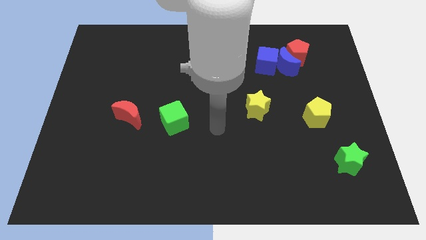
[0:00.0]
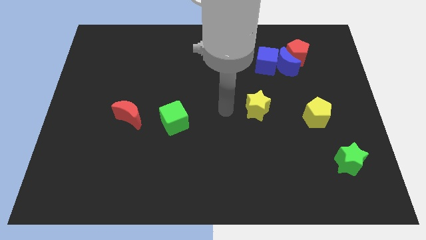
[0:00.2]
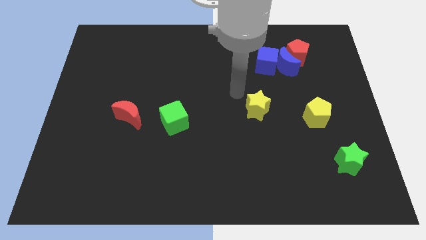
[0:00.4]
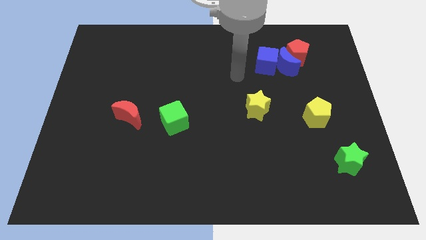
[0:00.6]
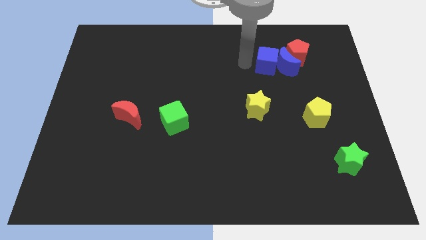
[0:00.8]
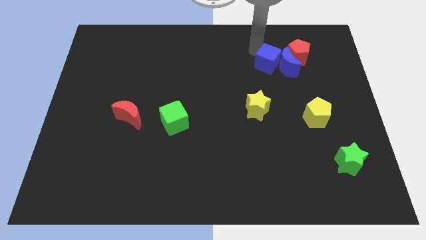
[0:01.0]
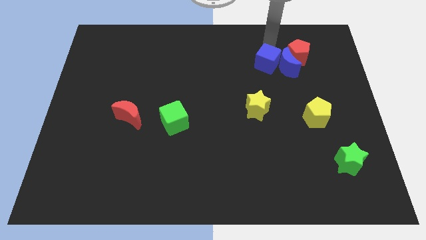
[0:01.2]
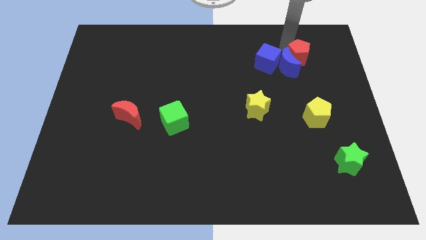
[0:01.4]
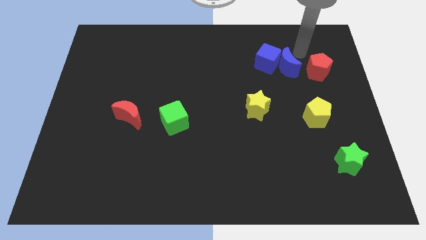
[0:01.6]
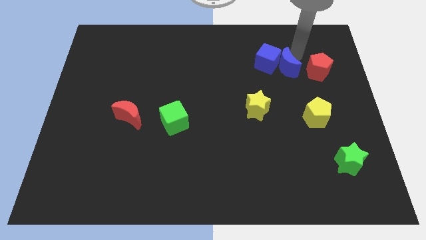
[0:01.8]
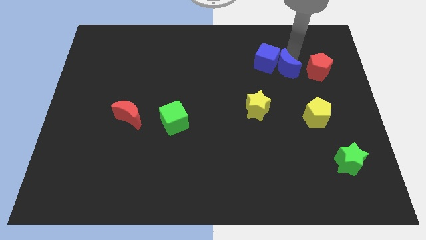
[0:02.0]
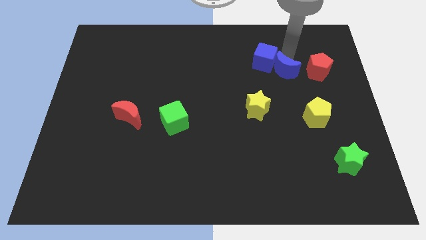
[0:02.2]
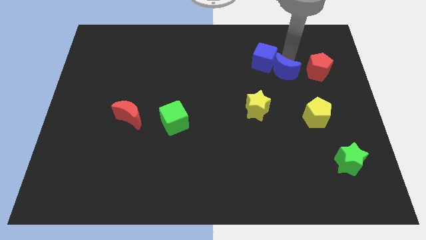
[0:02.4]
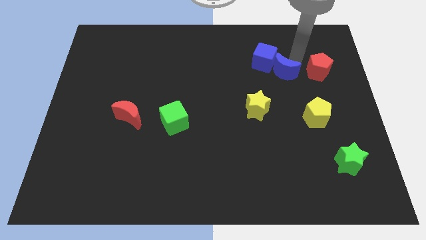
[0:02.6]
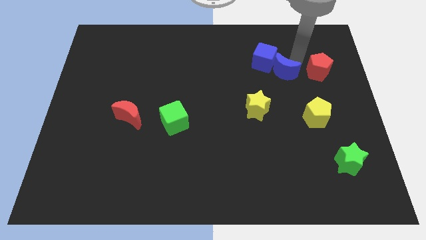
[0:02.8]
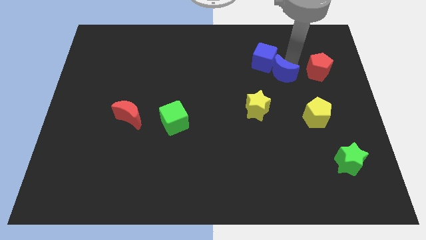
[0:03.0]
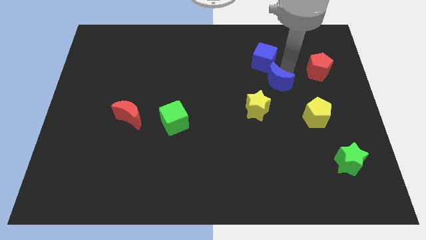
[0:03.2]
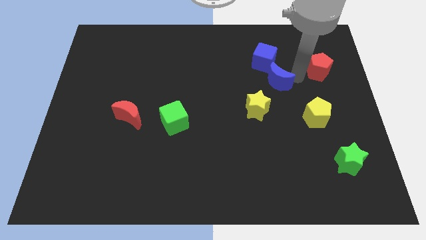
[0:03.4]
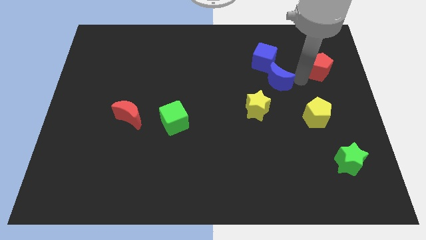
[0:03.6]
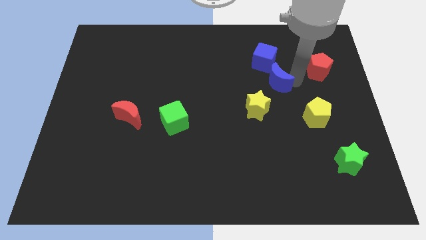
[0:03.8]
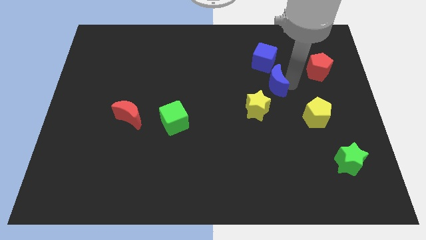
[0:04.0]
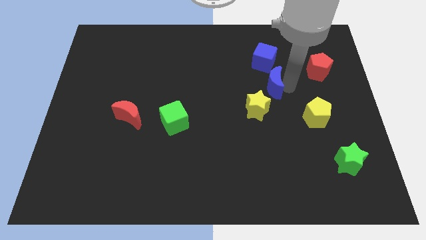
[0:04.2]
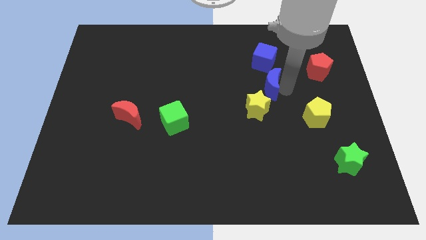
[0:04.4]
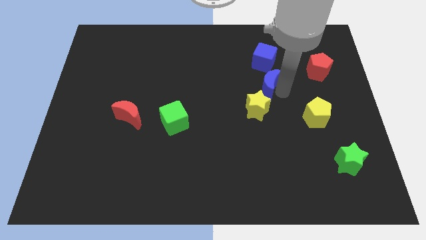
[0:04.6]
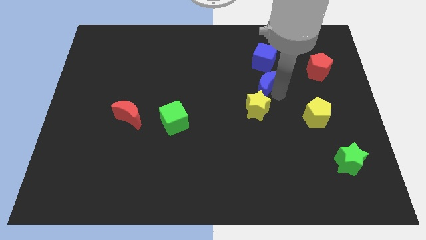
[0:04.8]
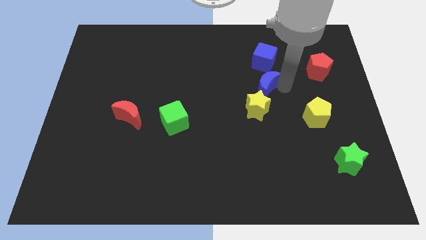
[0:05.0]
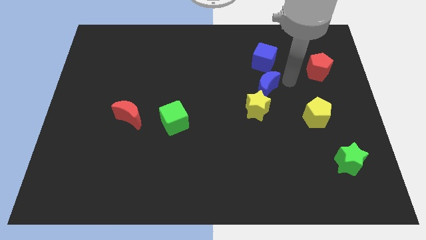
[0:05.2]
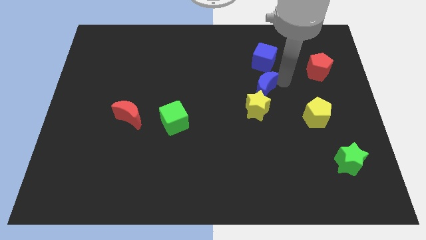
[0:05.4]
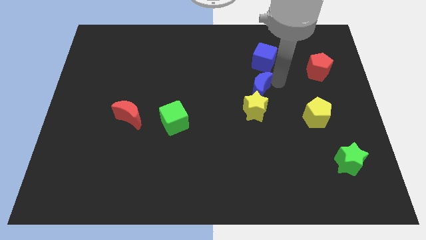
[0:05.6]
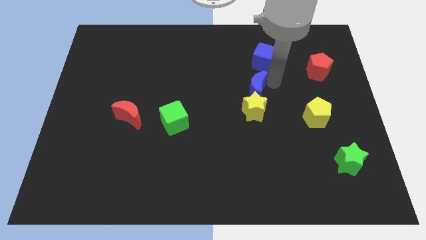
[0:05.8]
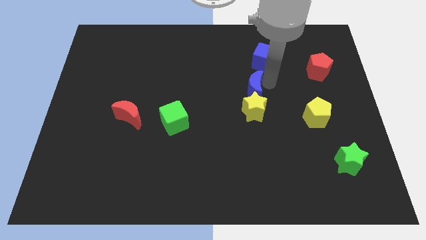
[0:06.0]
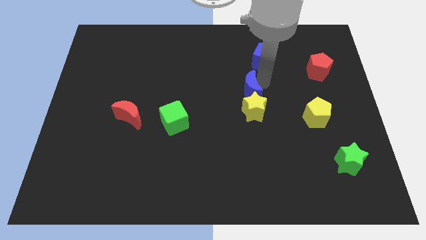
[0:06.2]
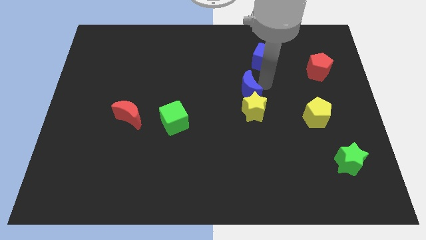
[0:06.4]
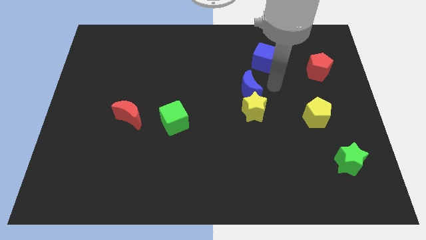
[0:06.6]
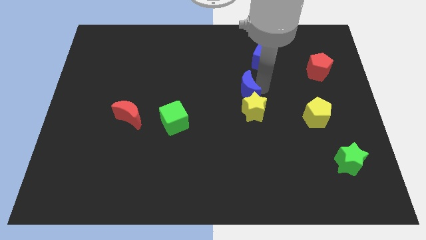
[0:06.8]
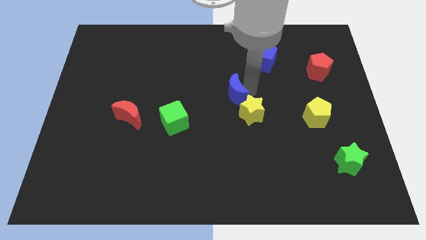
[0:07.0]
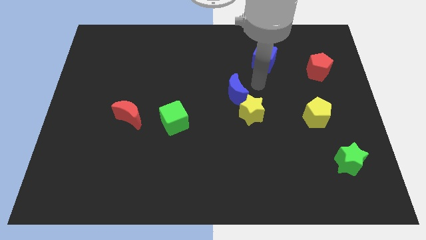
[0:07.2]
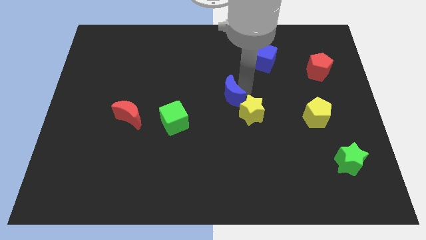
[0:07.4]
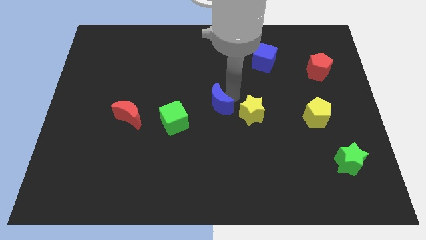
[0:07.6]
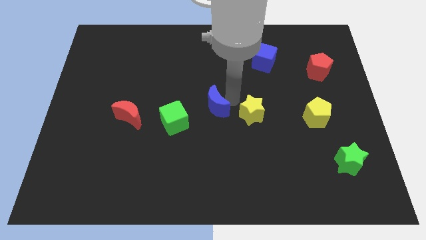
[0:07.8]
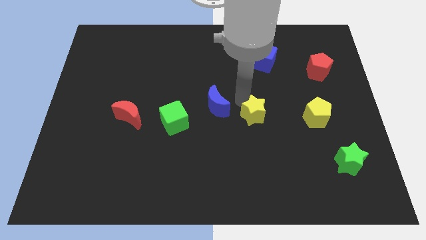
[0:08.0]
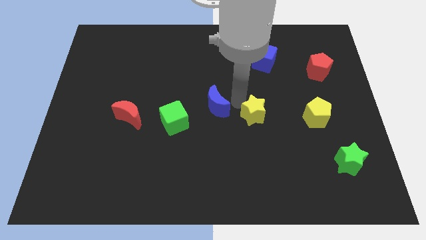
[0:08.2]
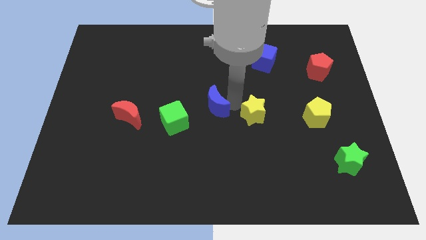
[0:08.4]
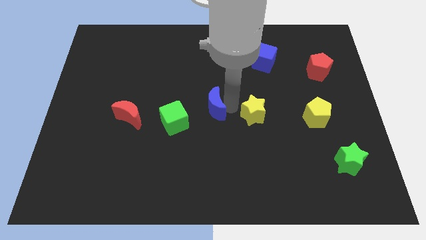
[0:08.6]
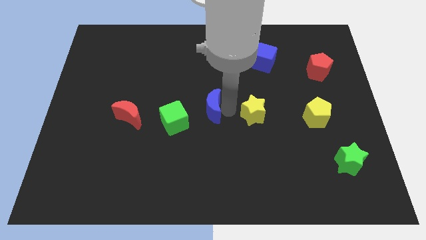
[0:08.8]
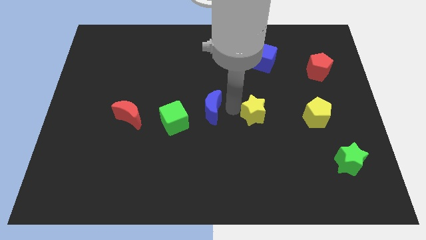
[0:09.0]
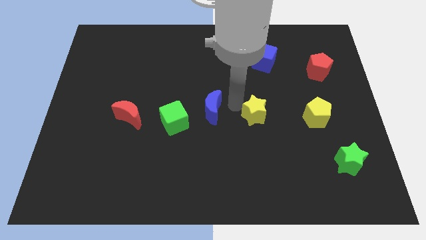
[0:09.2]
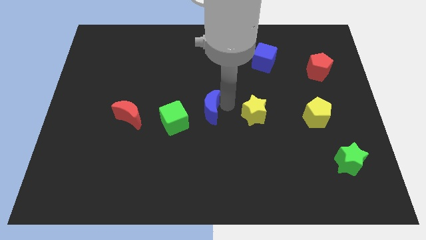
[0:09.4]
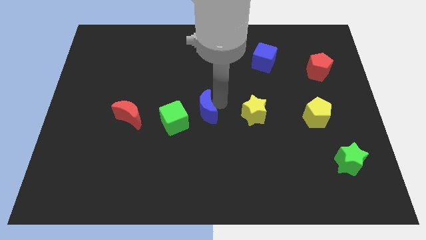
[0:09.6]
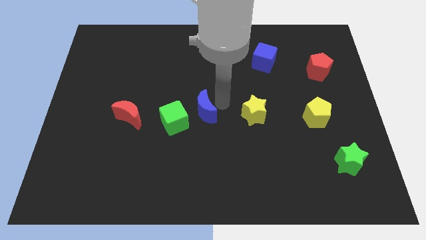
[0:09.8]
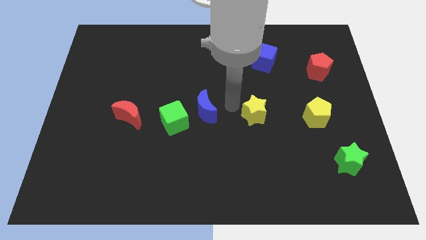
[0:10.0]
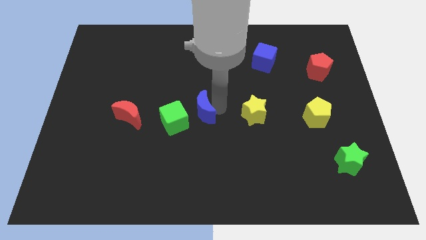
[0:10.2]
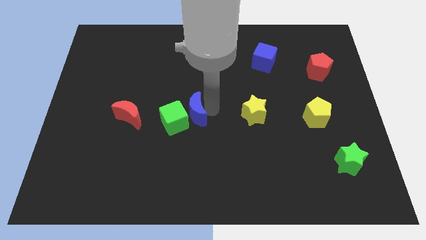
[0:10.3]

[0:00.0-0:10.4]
move the blue moon right of the red moon

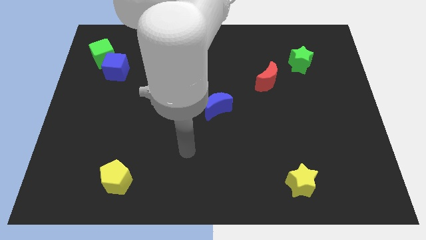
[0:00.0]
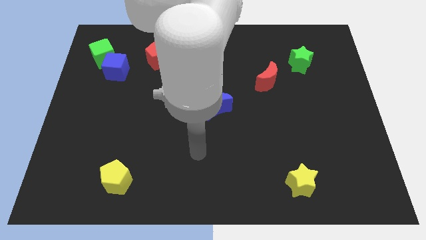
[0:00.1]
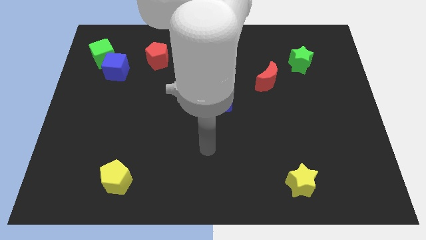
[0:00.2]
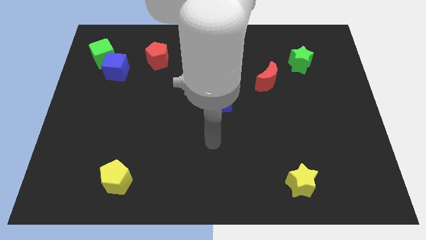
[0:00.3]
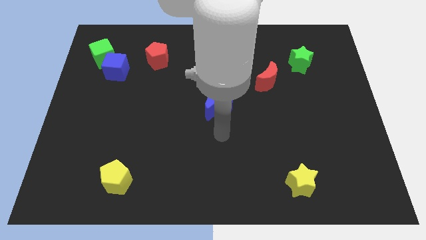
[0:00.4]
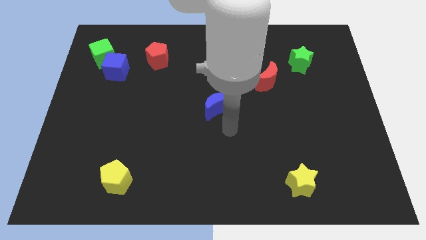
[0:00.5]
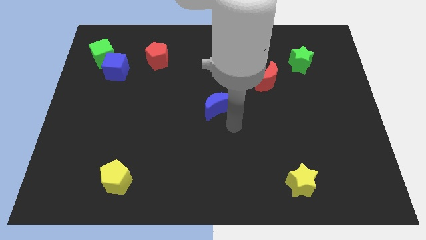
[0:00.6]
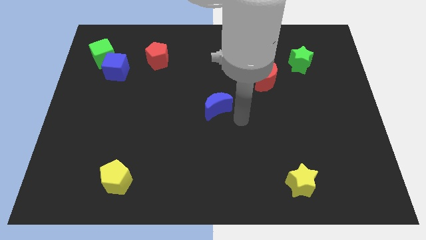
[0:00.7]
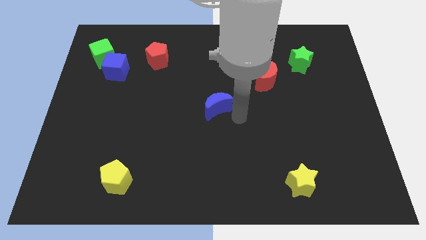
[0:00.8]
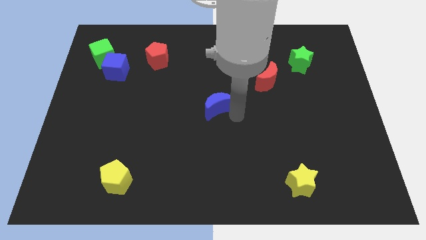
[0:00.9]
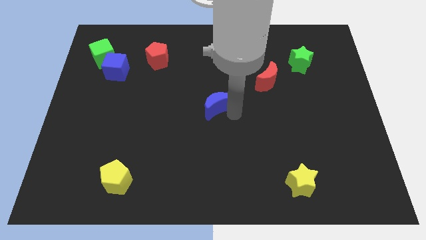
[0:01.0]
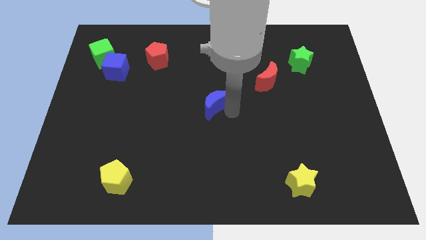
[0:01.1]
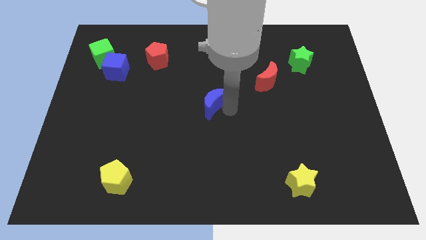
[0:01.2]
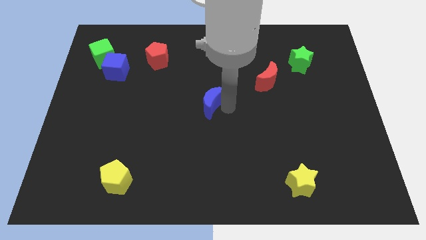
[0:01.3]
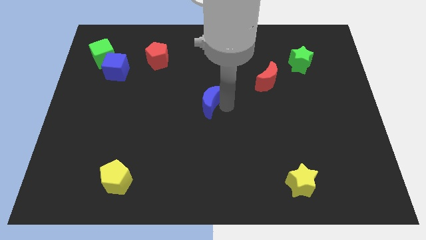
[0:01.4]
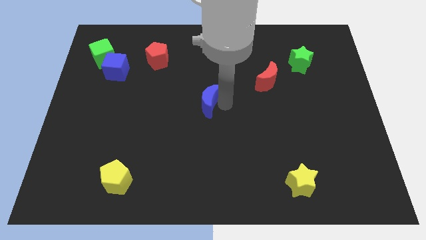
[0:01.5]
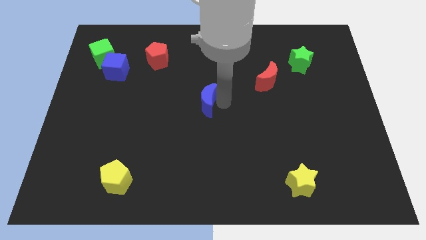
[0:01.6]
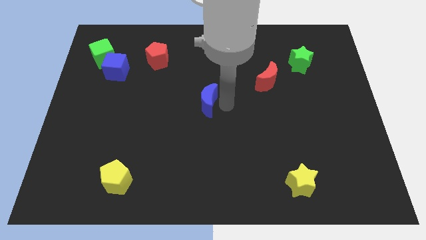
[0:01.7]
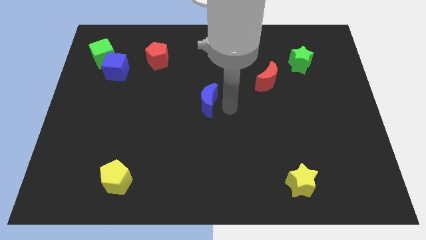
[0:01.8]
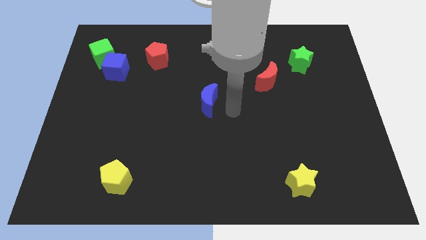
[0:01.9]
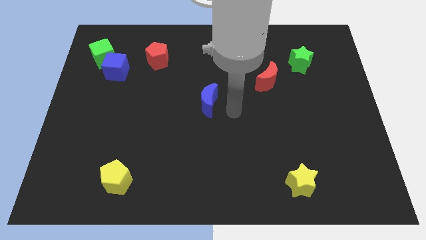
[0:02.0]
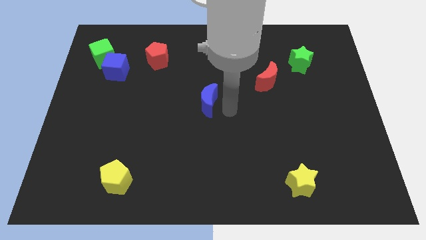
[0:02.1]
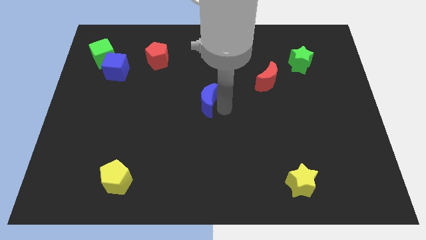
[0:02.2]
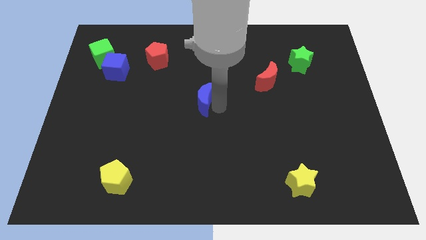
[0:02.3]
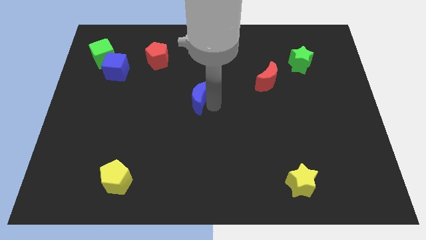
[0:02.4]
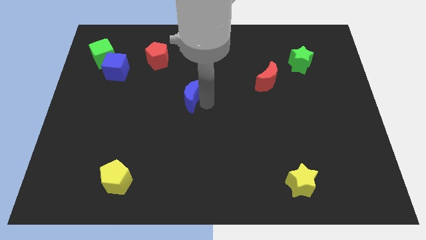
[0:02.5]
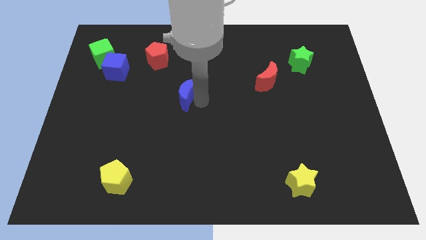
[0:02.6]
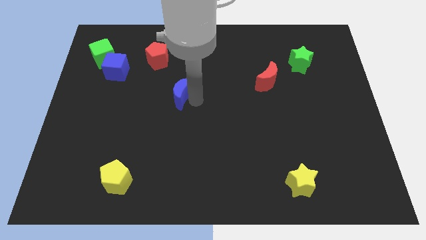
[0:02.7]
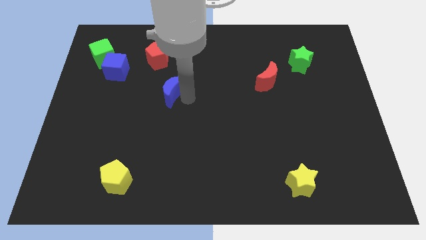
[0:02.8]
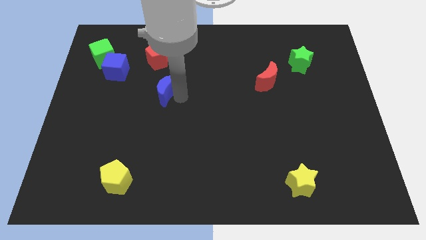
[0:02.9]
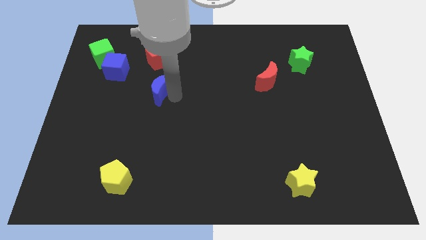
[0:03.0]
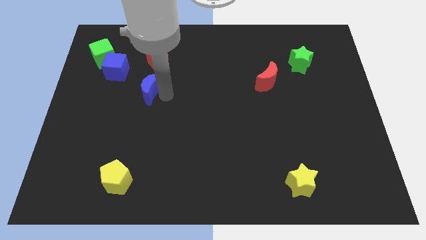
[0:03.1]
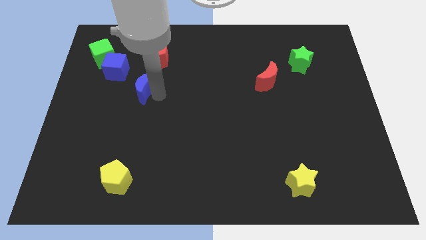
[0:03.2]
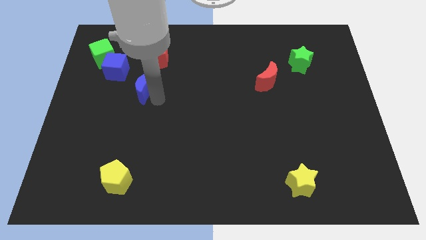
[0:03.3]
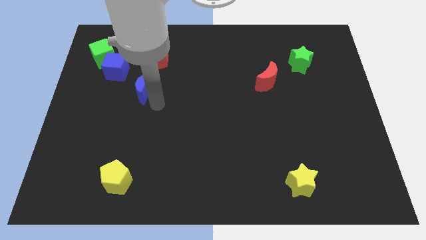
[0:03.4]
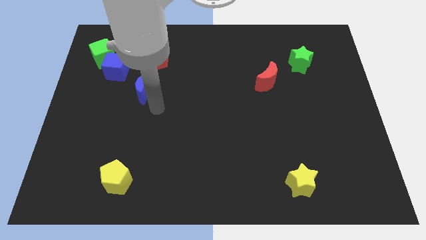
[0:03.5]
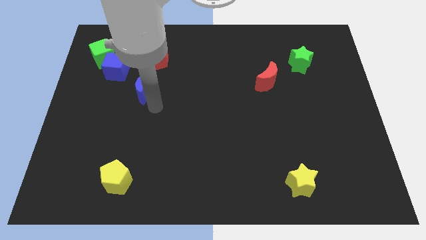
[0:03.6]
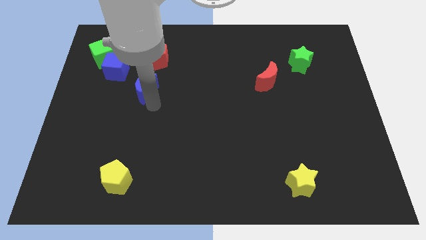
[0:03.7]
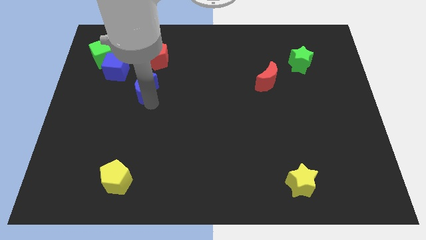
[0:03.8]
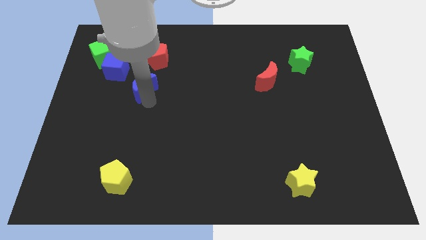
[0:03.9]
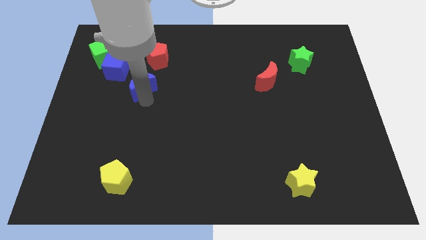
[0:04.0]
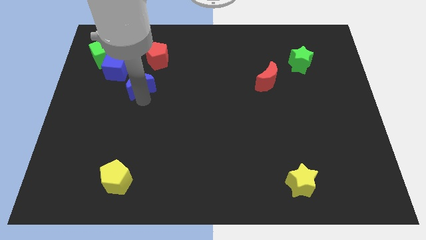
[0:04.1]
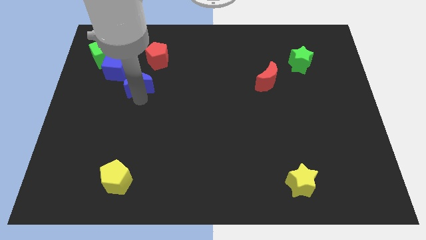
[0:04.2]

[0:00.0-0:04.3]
put the blue moon diagonally down and to the left of the red pentagon
